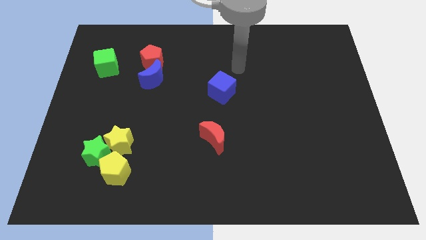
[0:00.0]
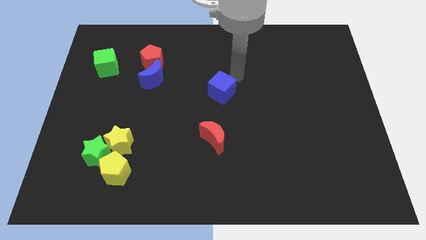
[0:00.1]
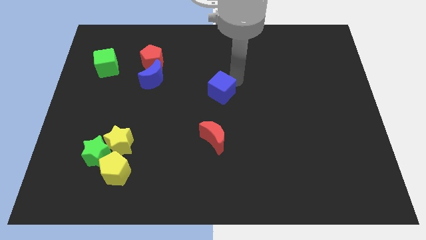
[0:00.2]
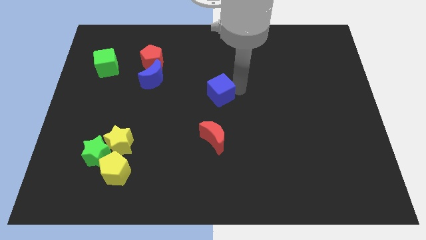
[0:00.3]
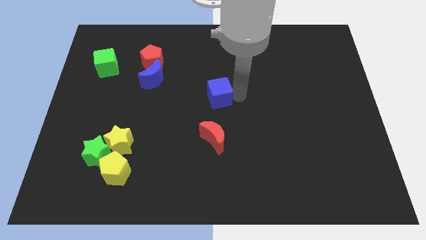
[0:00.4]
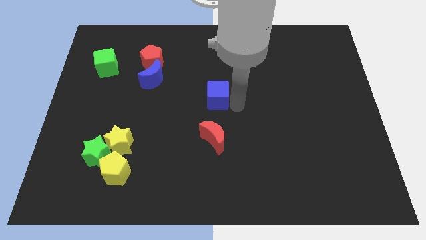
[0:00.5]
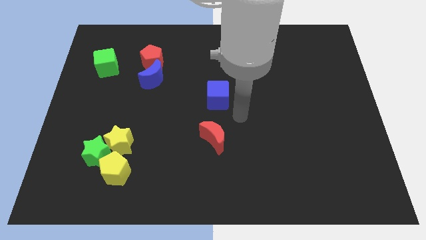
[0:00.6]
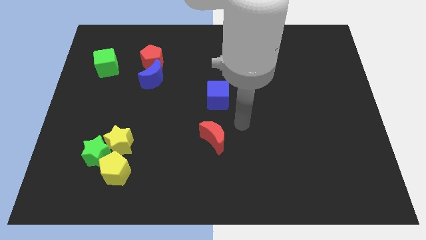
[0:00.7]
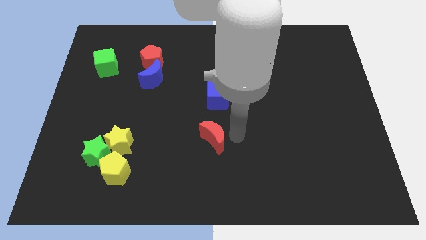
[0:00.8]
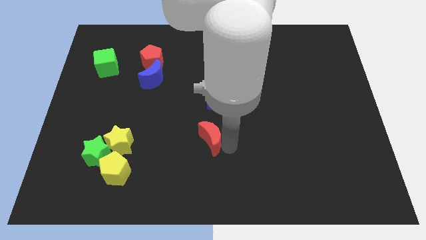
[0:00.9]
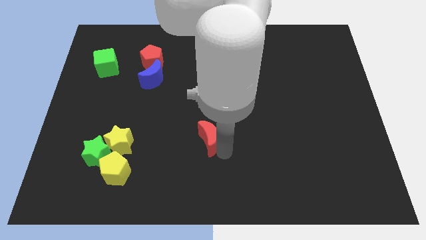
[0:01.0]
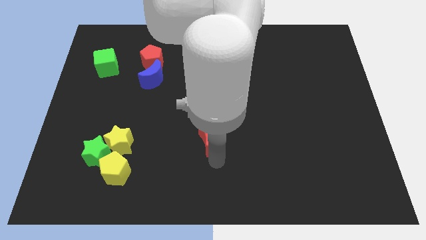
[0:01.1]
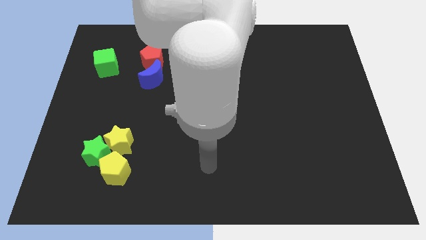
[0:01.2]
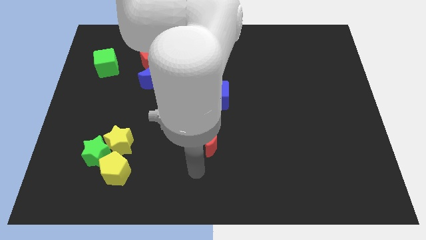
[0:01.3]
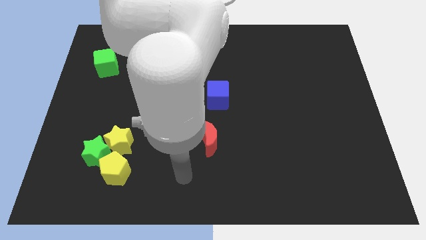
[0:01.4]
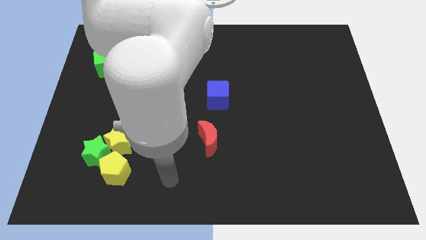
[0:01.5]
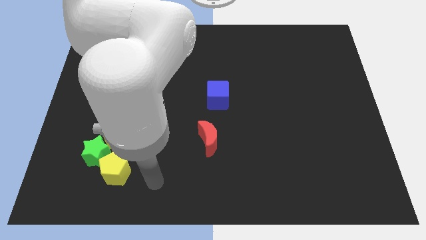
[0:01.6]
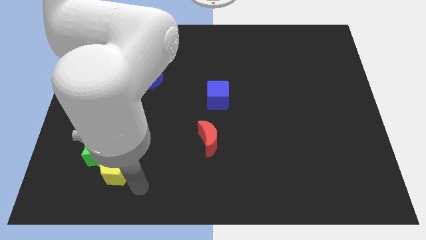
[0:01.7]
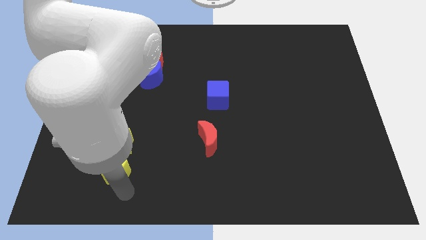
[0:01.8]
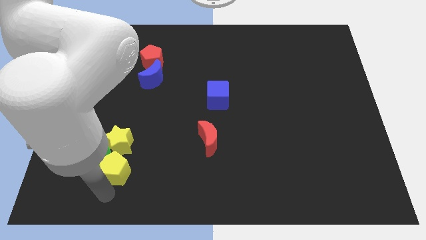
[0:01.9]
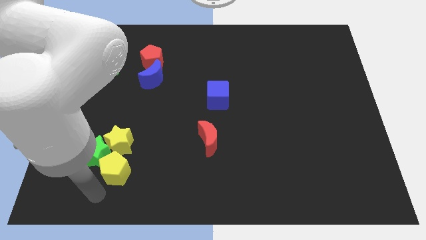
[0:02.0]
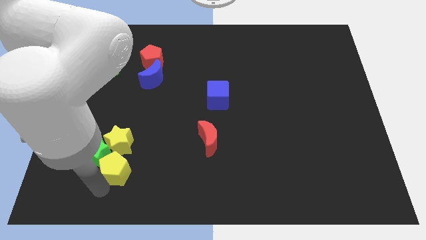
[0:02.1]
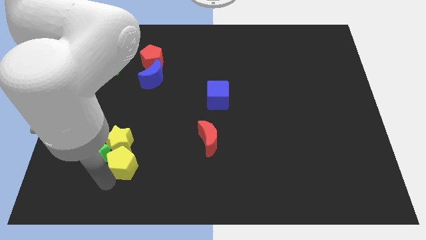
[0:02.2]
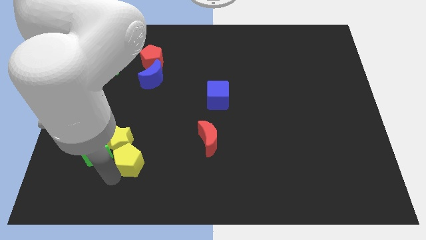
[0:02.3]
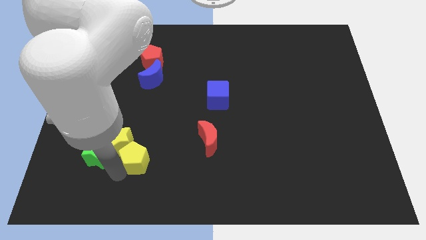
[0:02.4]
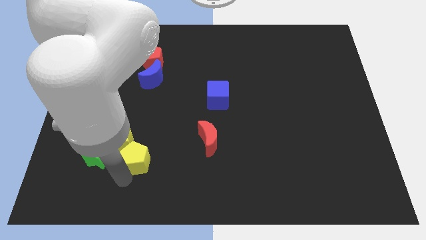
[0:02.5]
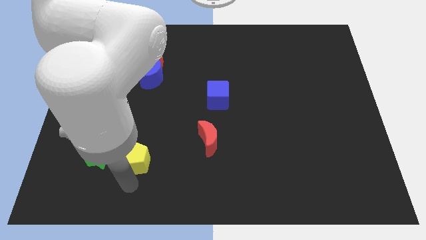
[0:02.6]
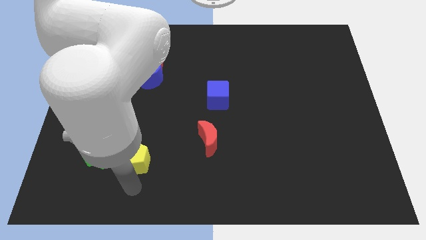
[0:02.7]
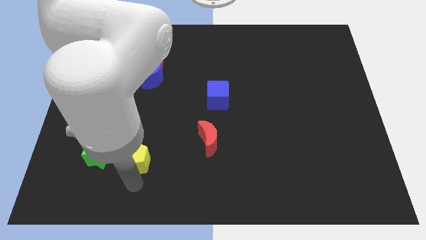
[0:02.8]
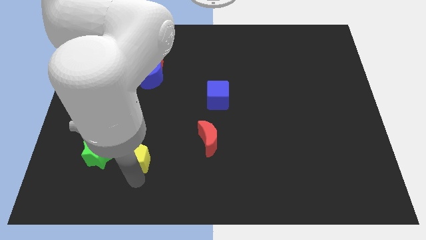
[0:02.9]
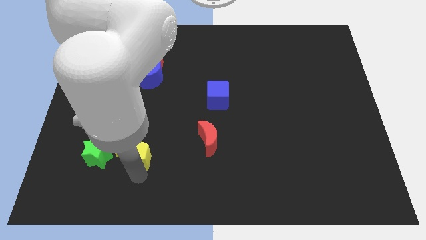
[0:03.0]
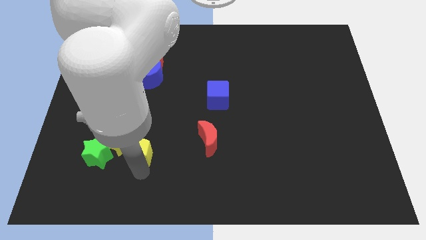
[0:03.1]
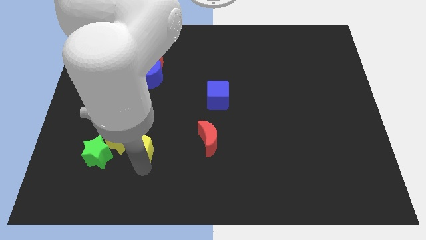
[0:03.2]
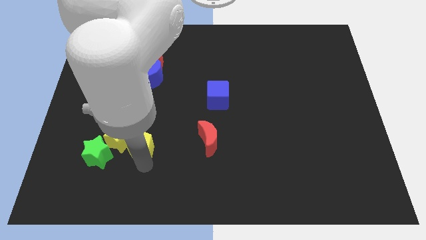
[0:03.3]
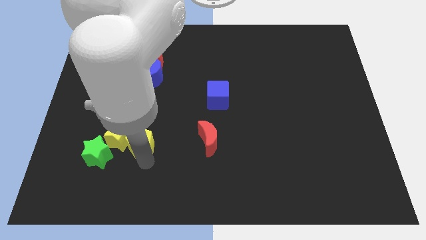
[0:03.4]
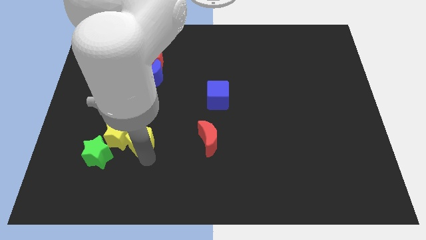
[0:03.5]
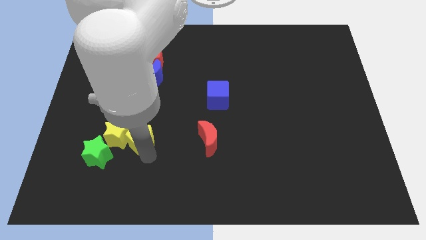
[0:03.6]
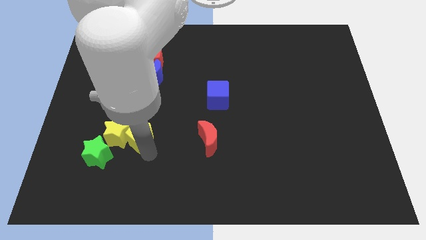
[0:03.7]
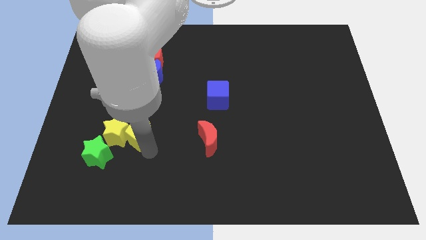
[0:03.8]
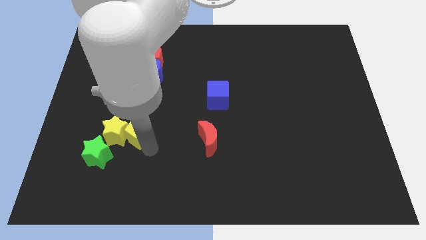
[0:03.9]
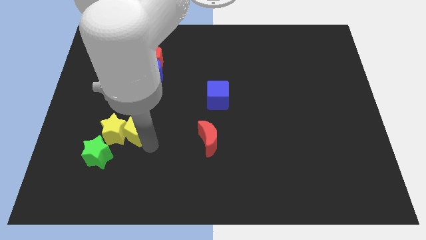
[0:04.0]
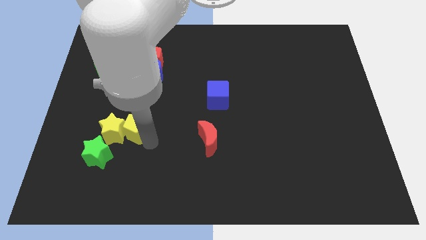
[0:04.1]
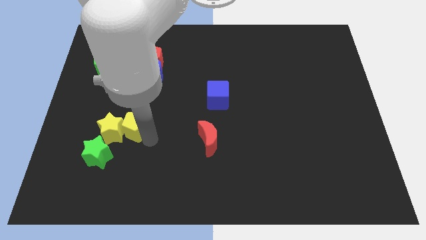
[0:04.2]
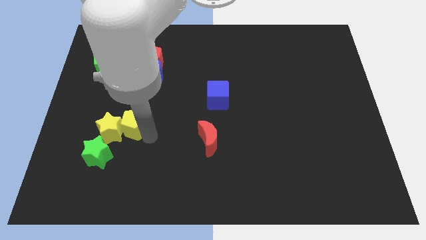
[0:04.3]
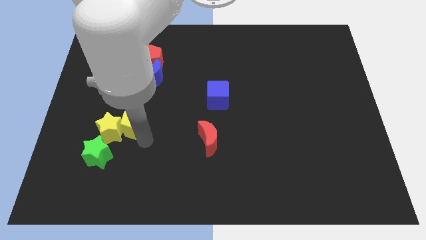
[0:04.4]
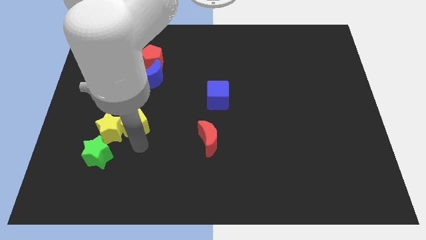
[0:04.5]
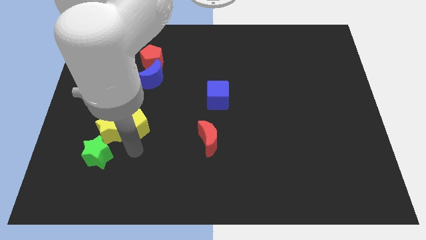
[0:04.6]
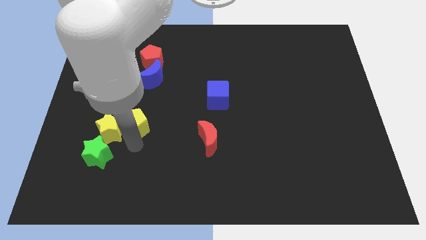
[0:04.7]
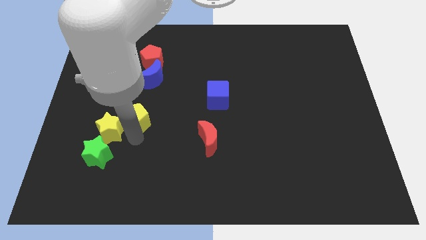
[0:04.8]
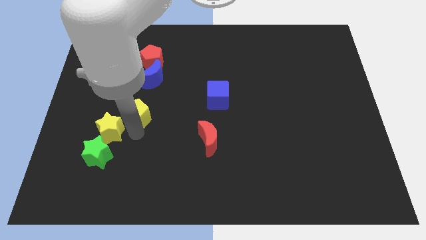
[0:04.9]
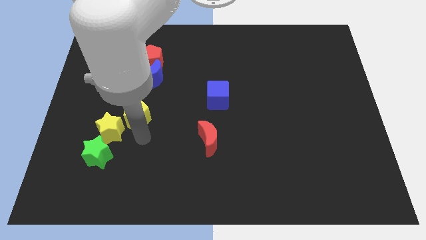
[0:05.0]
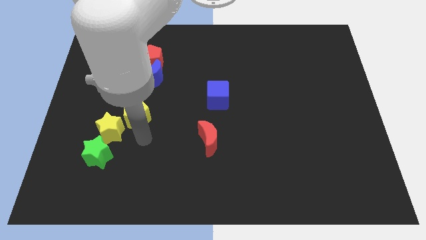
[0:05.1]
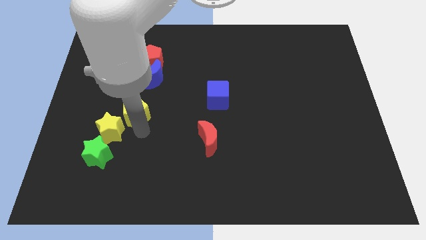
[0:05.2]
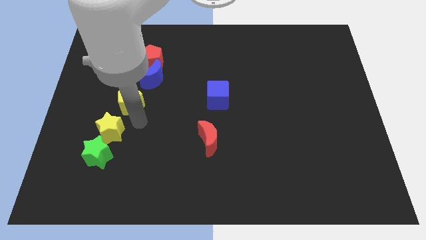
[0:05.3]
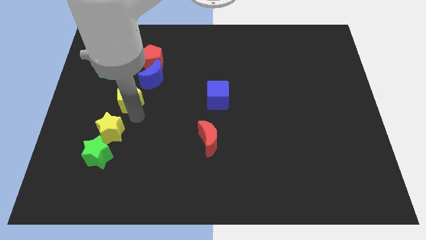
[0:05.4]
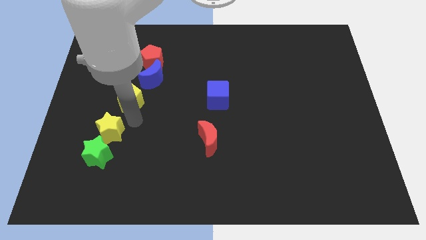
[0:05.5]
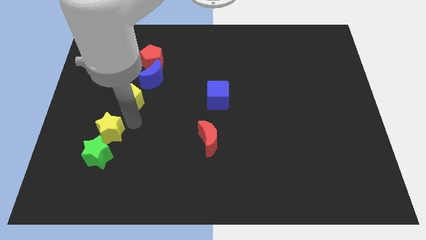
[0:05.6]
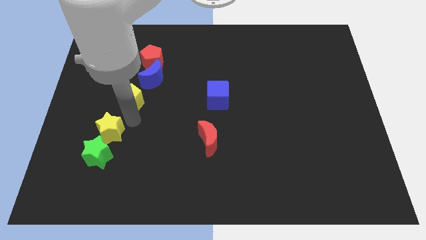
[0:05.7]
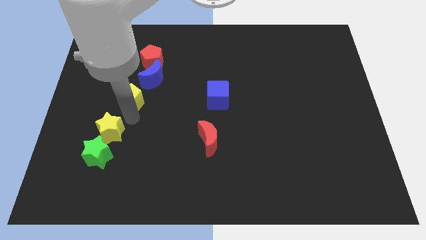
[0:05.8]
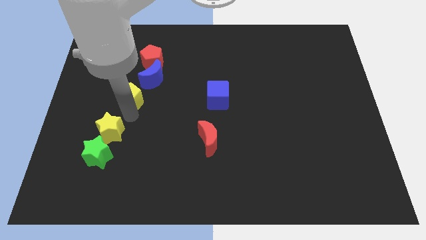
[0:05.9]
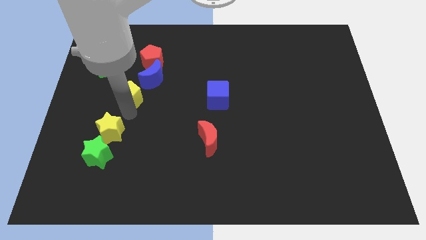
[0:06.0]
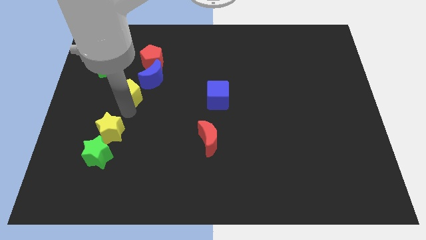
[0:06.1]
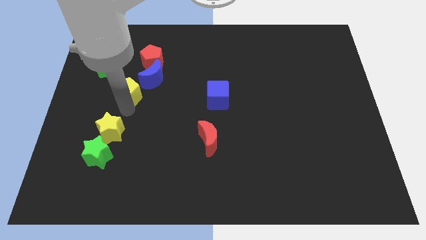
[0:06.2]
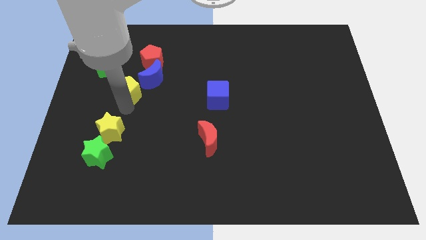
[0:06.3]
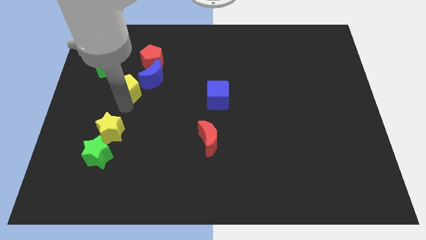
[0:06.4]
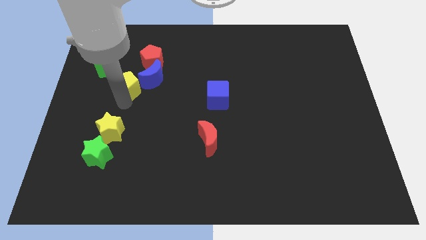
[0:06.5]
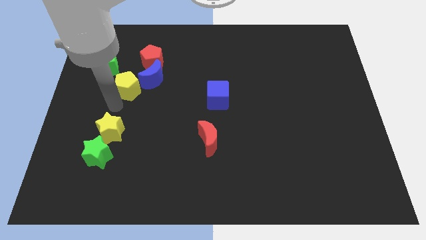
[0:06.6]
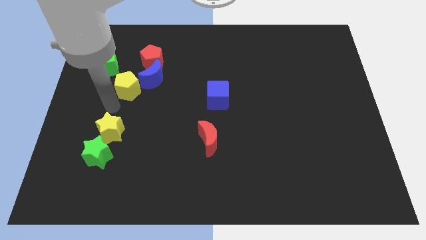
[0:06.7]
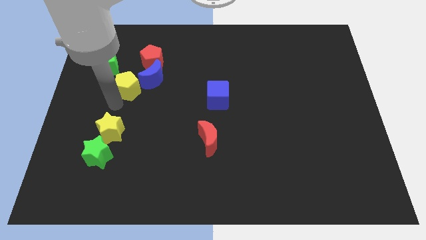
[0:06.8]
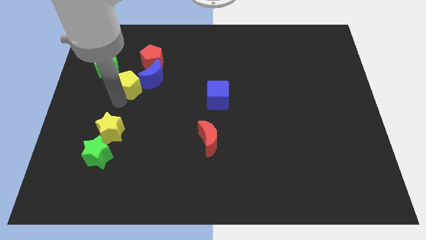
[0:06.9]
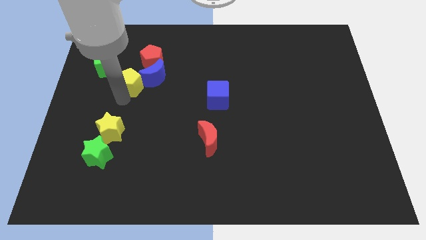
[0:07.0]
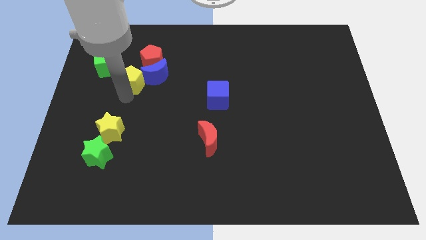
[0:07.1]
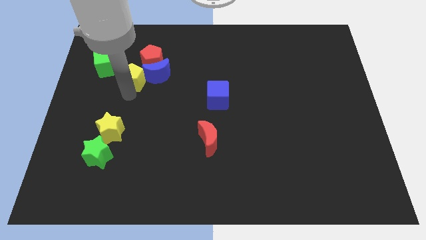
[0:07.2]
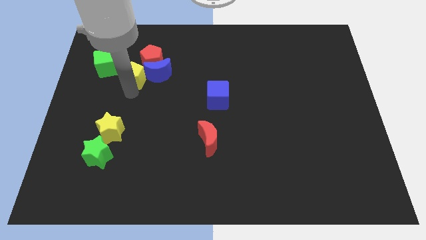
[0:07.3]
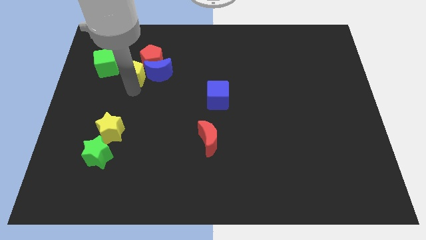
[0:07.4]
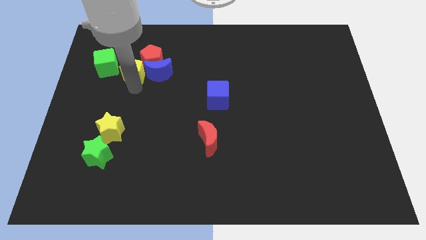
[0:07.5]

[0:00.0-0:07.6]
put the yellow pentagon next to the red pentagon
